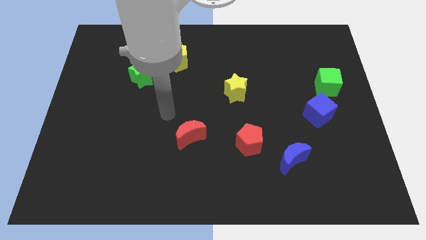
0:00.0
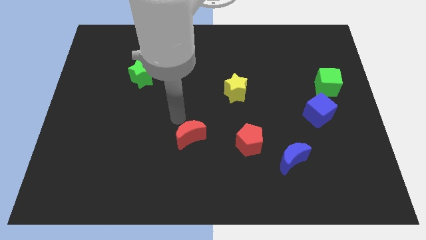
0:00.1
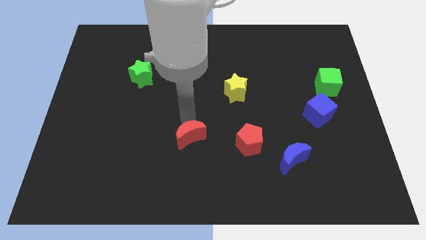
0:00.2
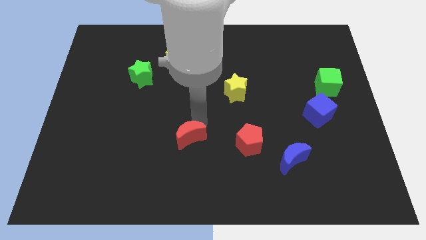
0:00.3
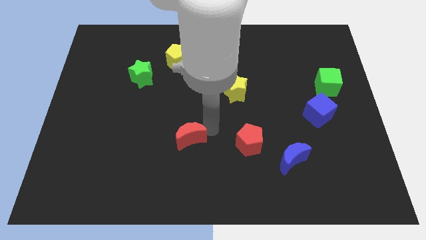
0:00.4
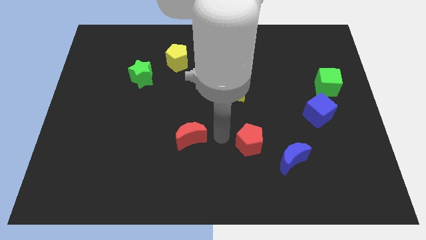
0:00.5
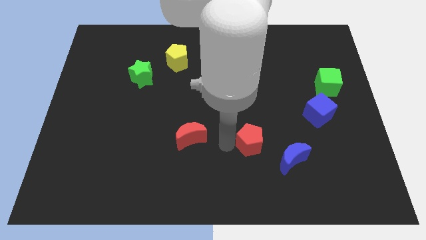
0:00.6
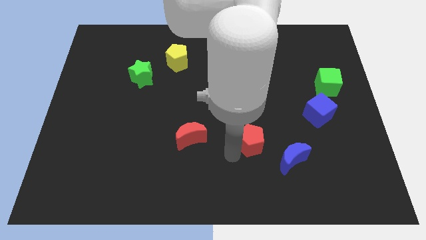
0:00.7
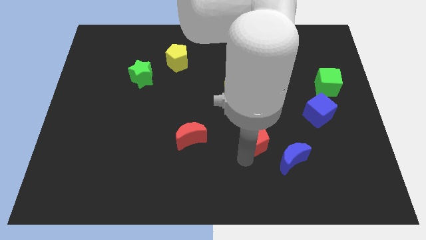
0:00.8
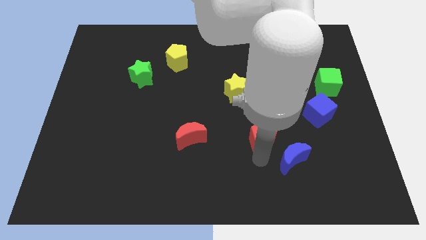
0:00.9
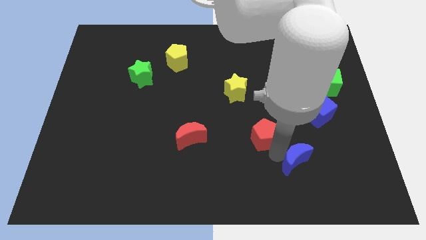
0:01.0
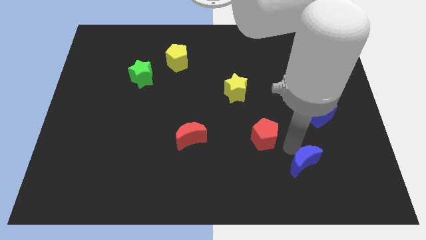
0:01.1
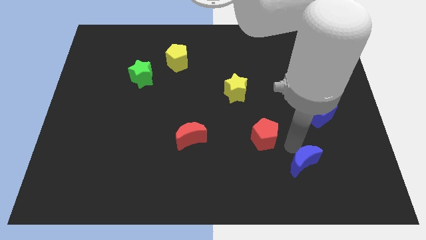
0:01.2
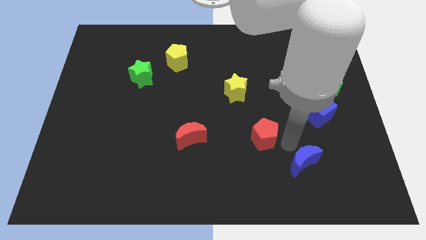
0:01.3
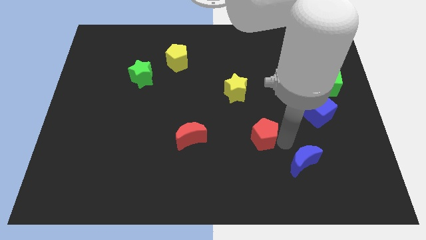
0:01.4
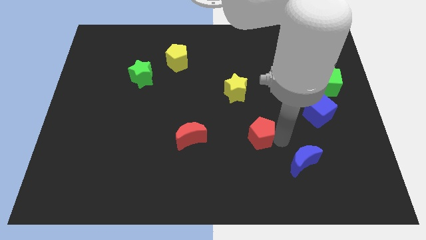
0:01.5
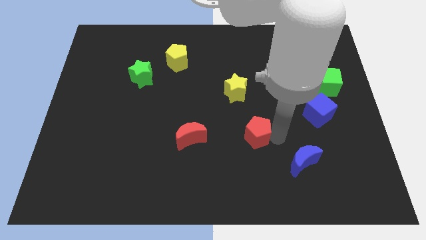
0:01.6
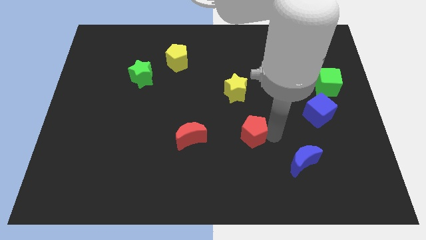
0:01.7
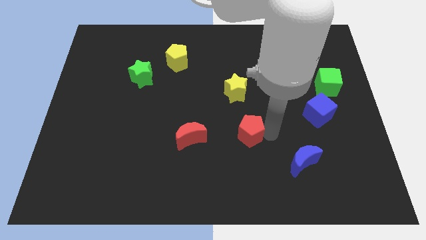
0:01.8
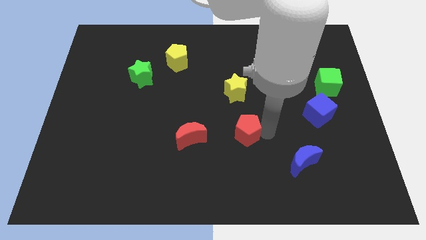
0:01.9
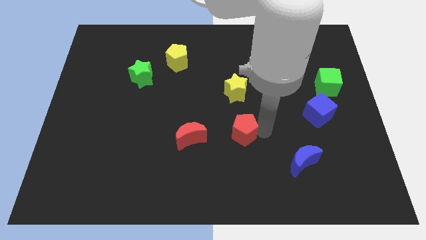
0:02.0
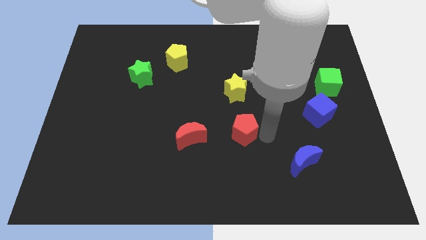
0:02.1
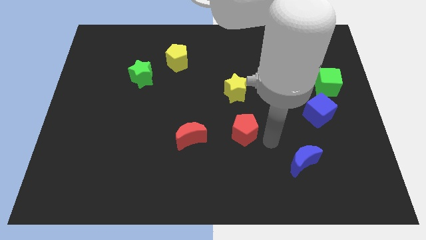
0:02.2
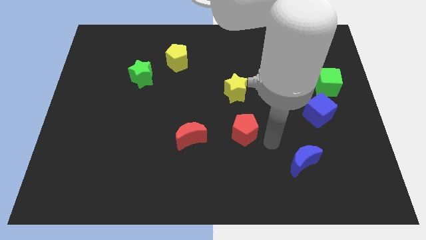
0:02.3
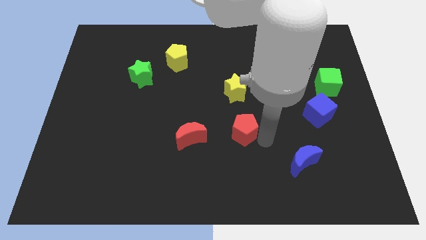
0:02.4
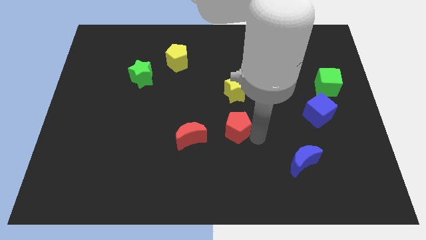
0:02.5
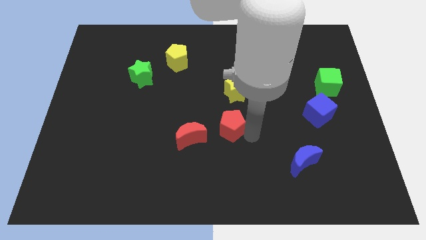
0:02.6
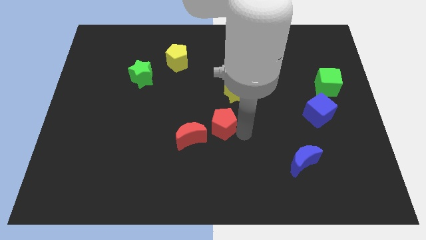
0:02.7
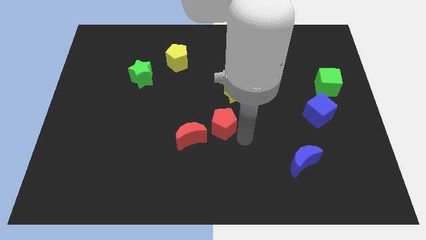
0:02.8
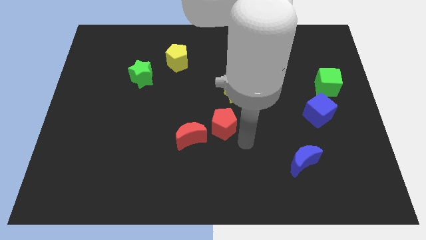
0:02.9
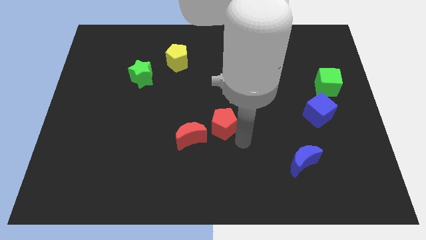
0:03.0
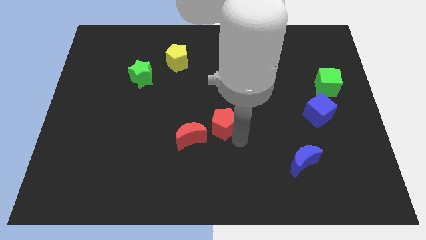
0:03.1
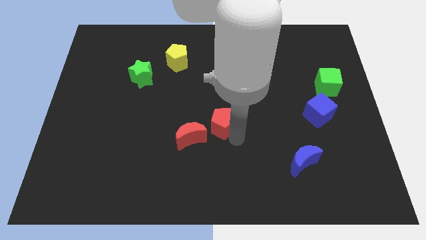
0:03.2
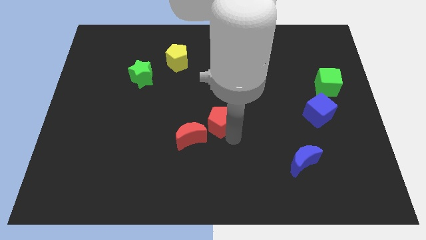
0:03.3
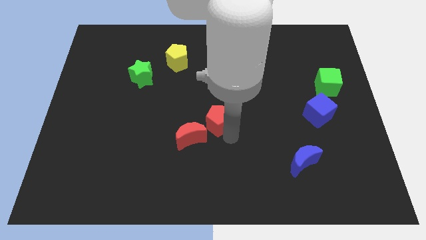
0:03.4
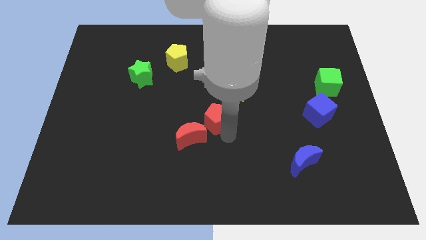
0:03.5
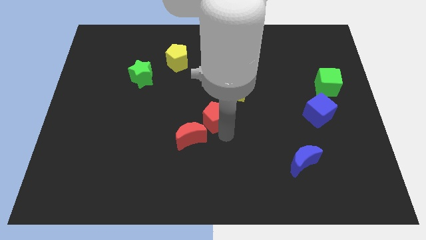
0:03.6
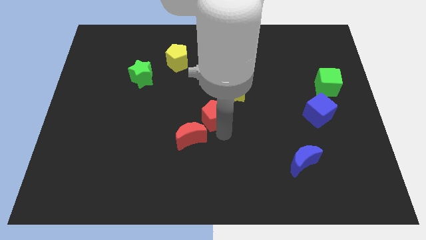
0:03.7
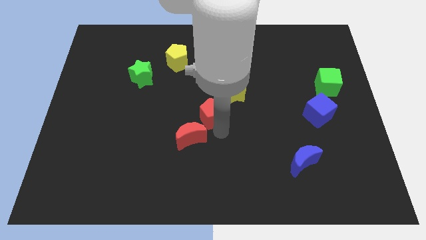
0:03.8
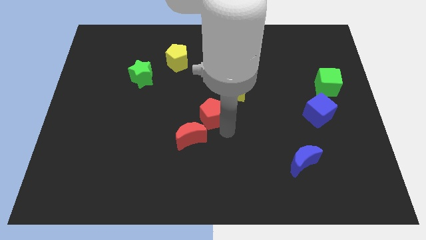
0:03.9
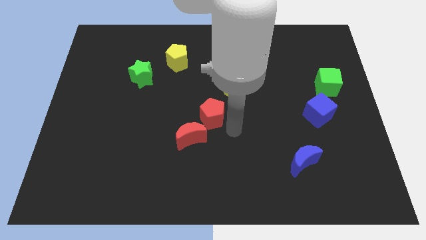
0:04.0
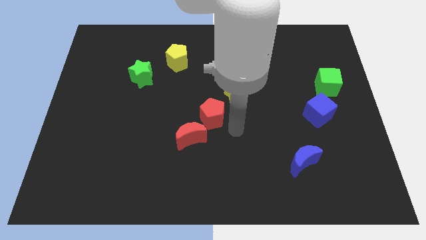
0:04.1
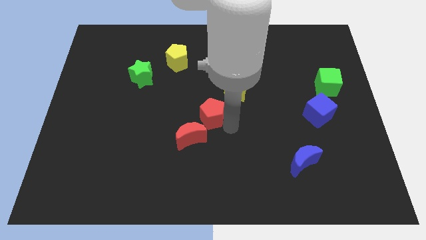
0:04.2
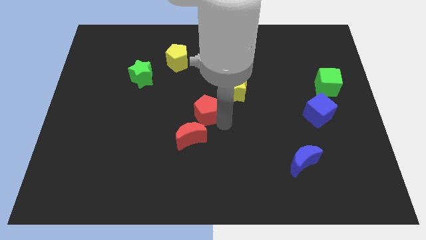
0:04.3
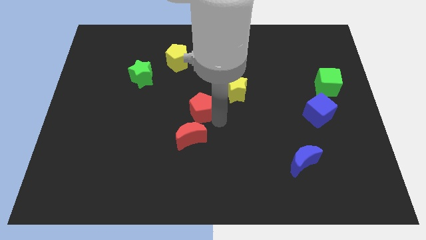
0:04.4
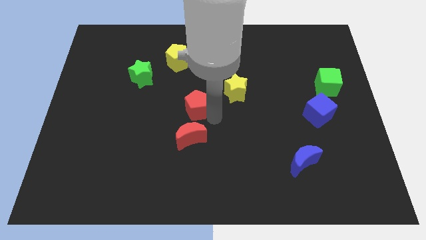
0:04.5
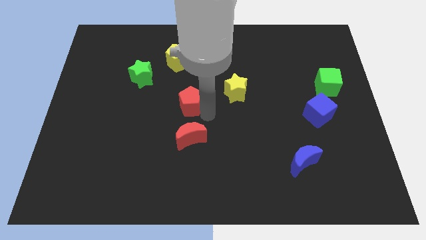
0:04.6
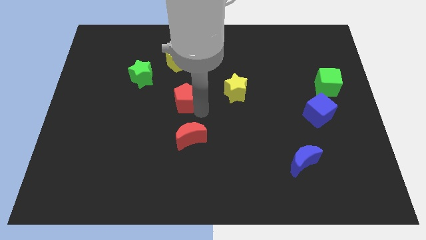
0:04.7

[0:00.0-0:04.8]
put the red pentagon to the bottom of the yellow pentagon

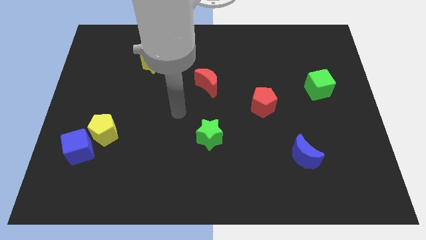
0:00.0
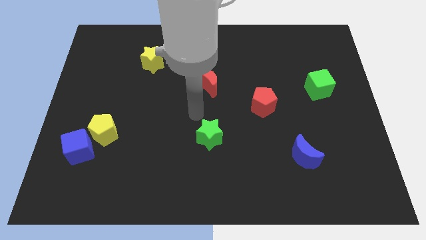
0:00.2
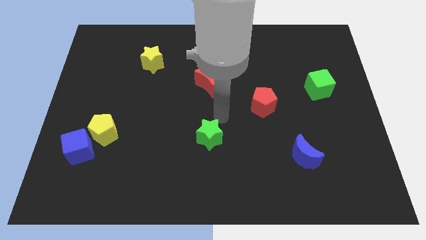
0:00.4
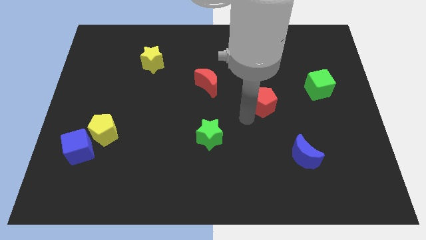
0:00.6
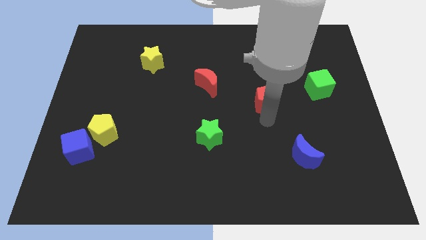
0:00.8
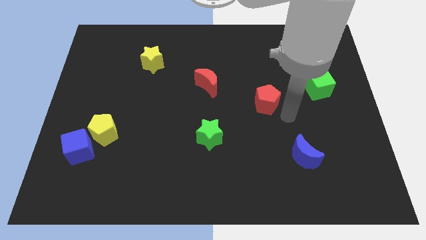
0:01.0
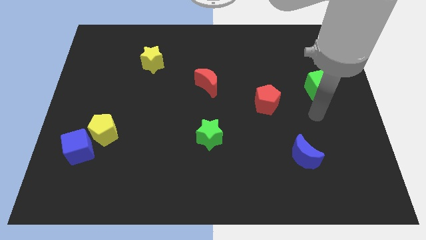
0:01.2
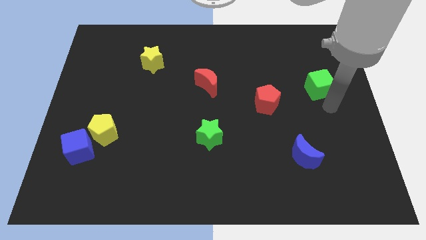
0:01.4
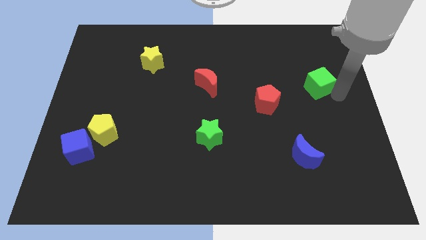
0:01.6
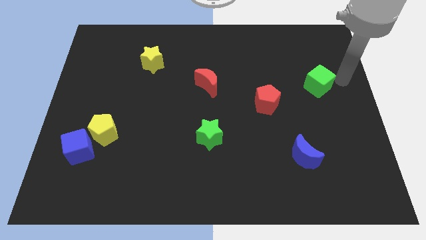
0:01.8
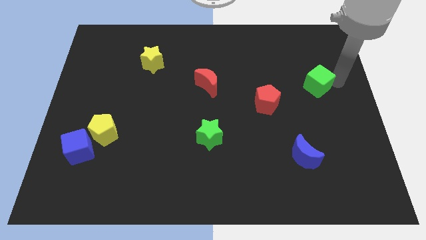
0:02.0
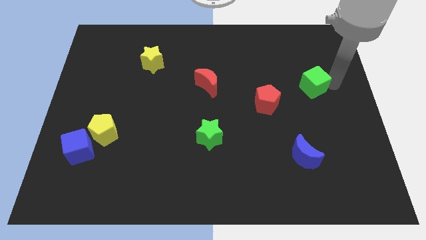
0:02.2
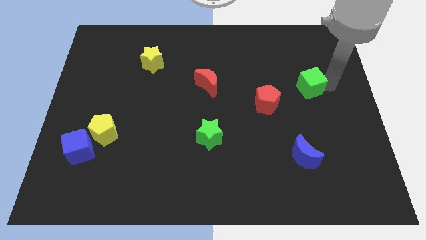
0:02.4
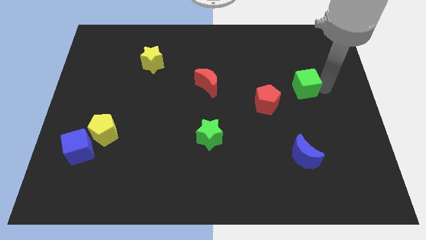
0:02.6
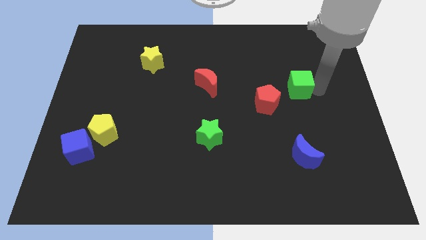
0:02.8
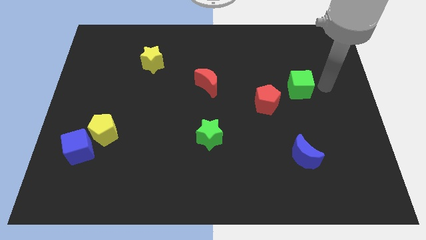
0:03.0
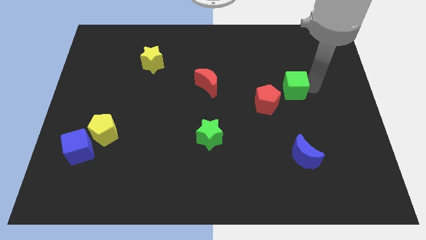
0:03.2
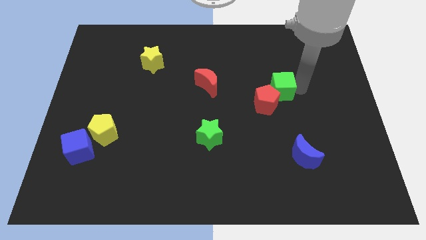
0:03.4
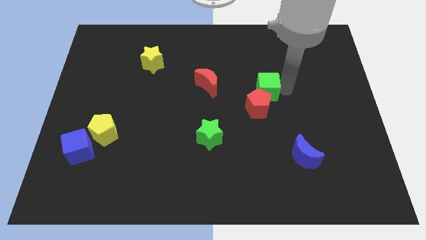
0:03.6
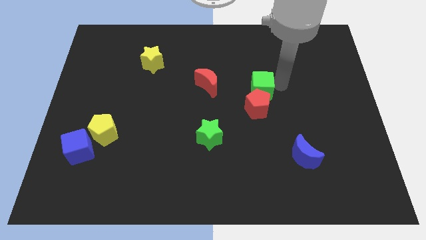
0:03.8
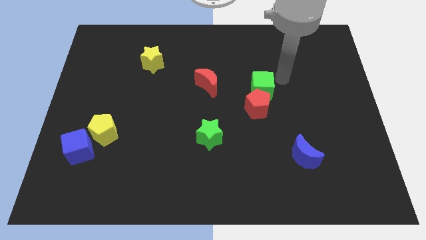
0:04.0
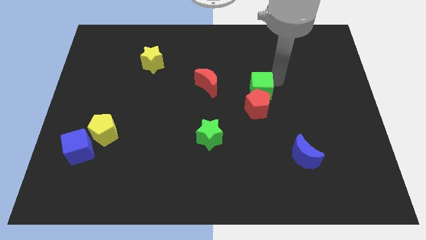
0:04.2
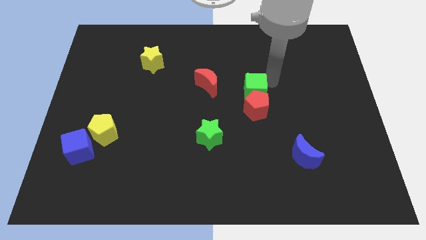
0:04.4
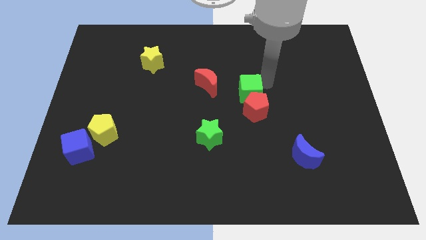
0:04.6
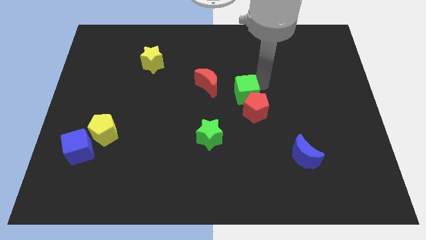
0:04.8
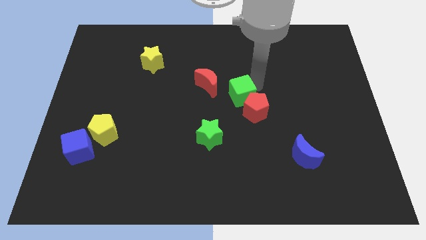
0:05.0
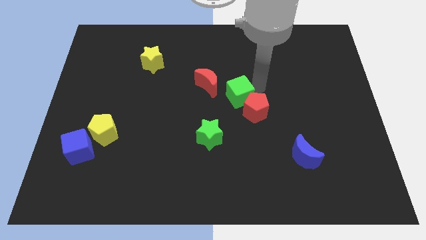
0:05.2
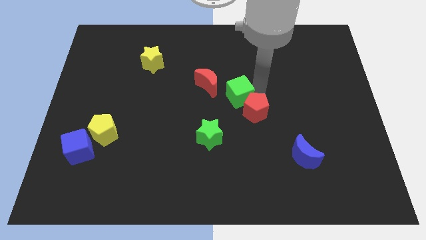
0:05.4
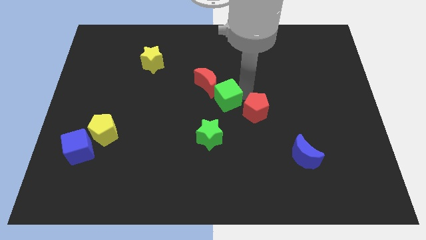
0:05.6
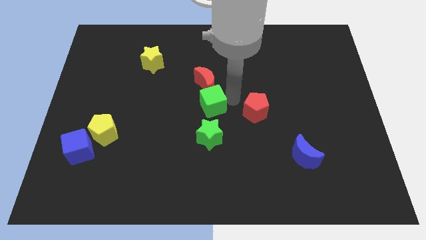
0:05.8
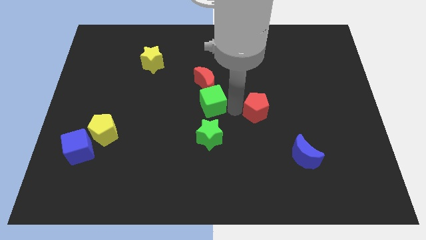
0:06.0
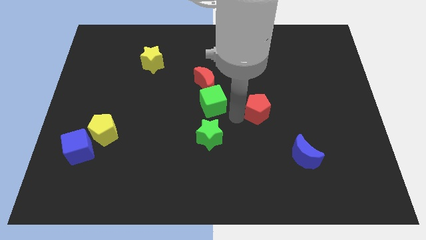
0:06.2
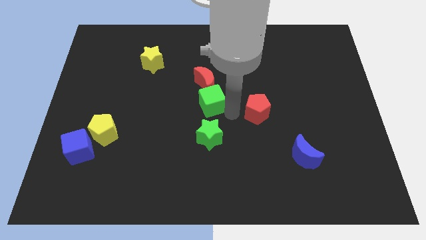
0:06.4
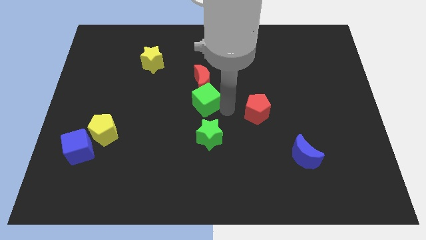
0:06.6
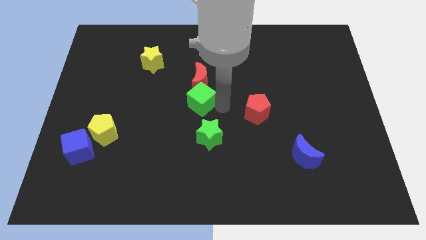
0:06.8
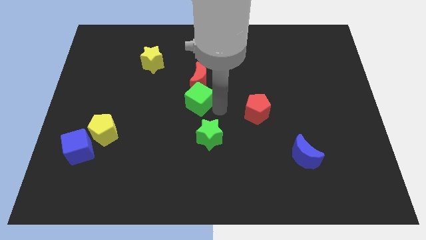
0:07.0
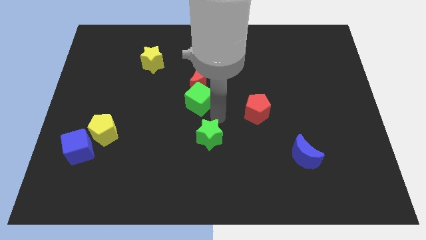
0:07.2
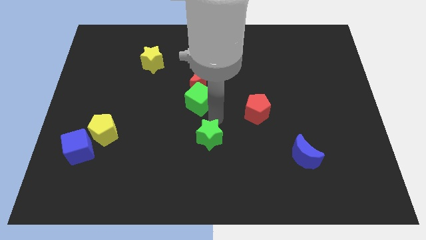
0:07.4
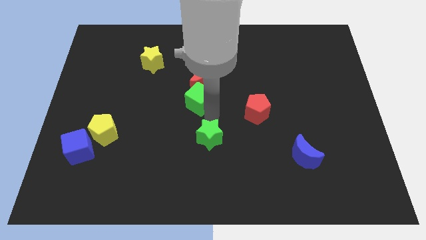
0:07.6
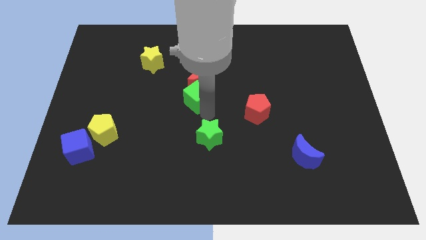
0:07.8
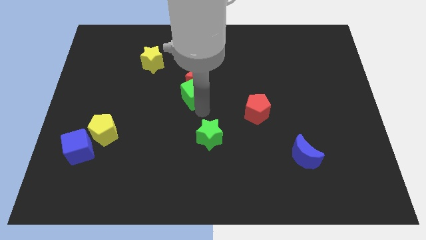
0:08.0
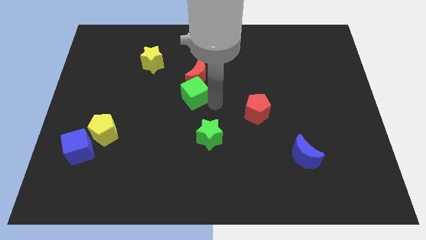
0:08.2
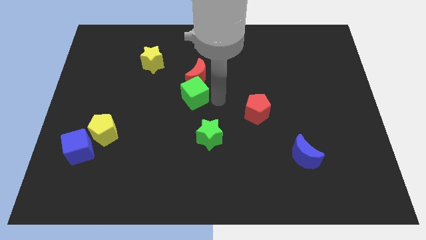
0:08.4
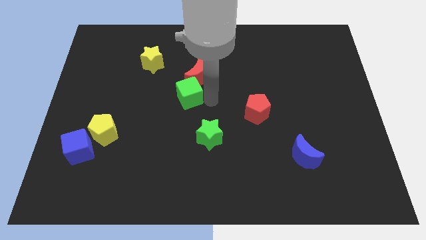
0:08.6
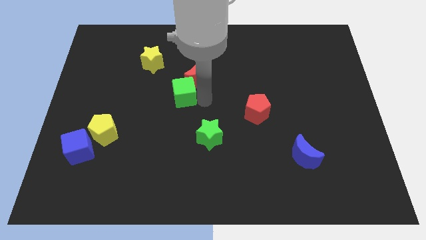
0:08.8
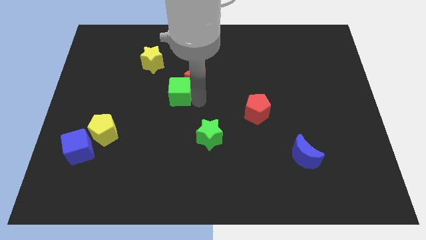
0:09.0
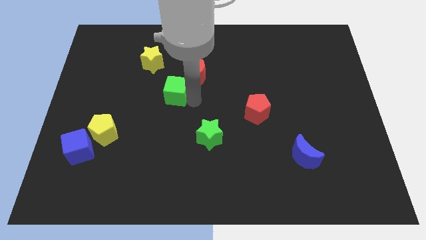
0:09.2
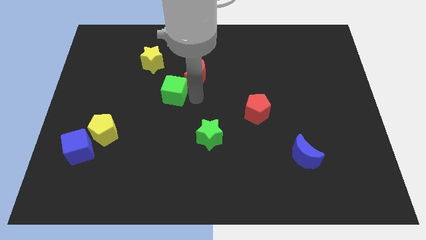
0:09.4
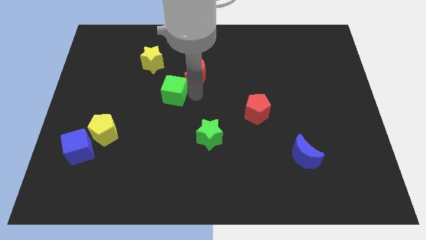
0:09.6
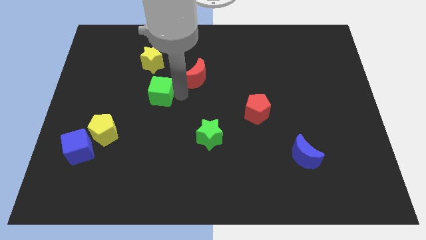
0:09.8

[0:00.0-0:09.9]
put the green cube to the bottom of the yellow star
